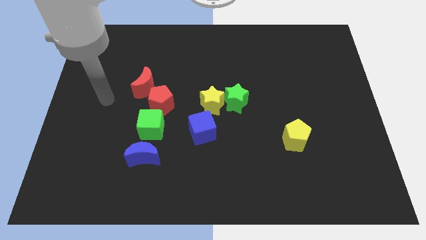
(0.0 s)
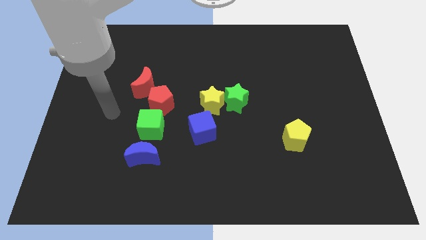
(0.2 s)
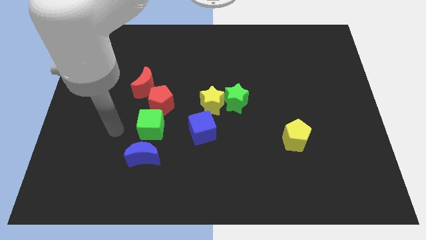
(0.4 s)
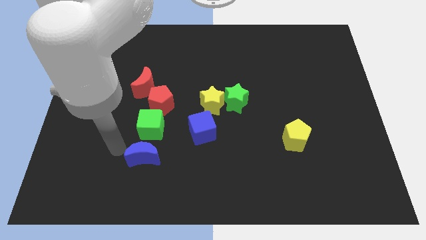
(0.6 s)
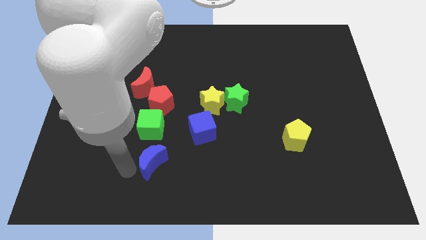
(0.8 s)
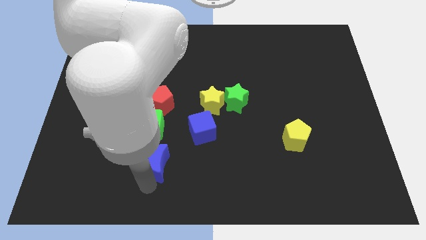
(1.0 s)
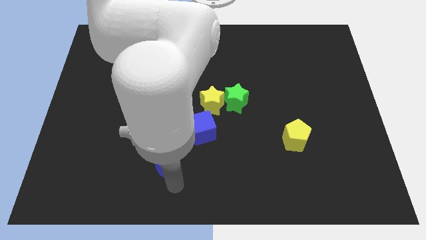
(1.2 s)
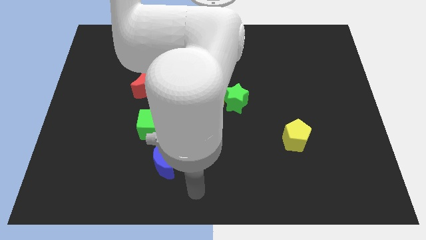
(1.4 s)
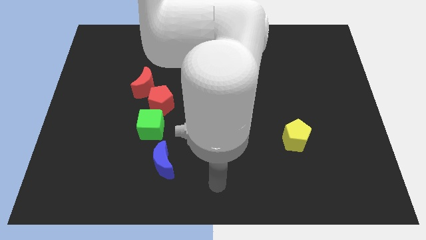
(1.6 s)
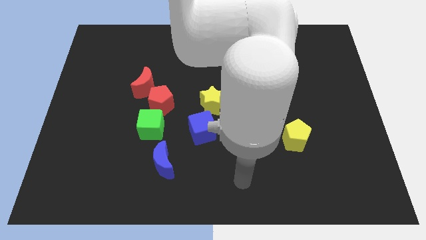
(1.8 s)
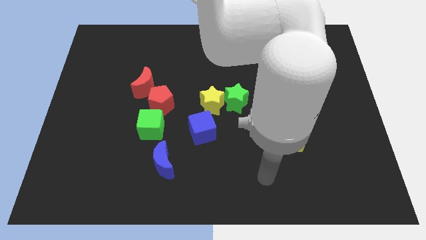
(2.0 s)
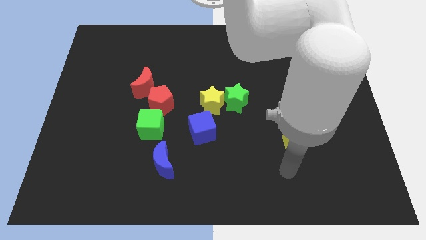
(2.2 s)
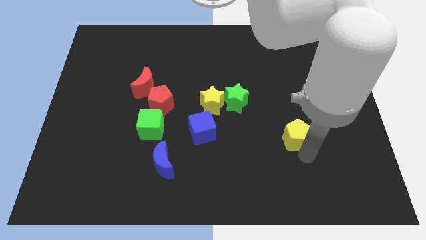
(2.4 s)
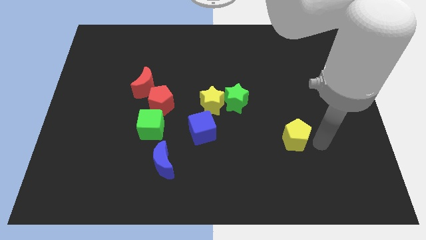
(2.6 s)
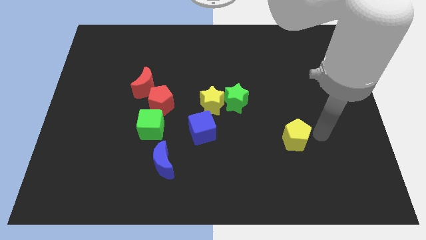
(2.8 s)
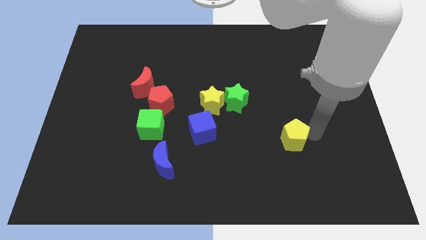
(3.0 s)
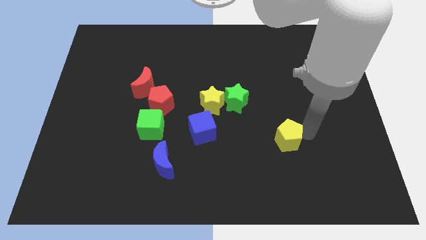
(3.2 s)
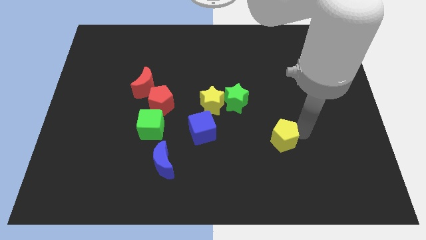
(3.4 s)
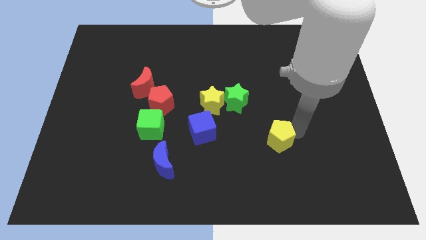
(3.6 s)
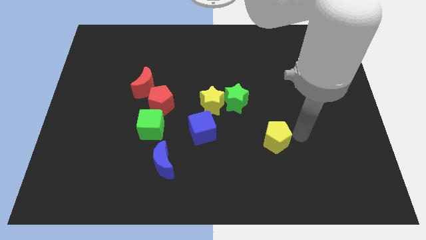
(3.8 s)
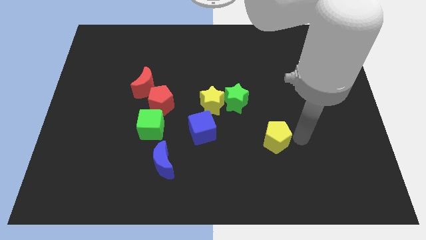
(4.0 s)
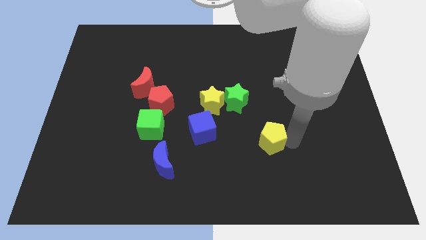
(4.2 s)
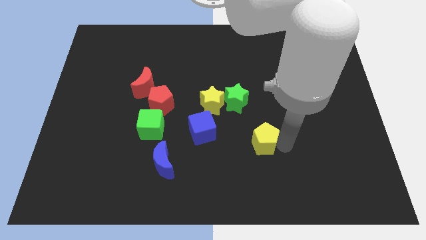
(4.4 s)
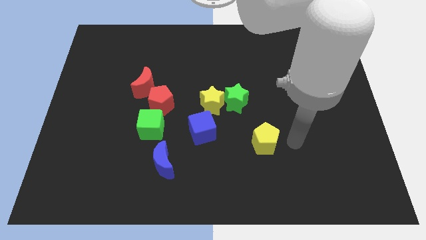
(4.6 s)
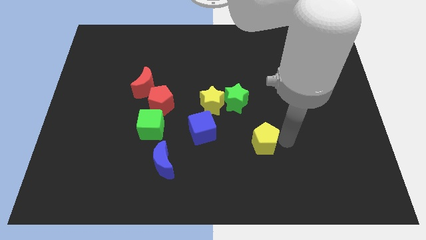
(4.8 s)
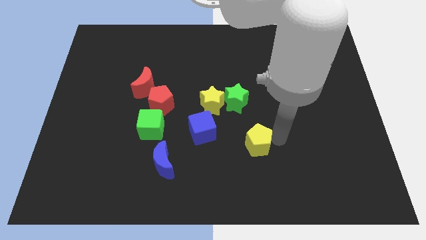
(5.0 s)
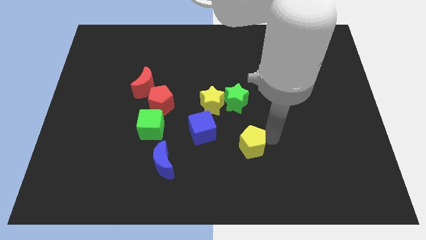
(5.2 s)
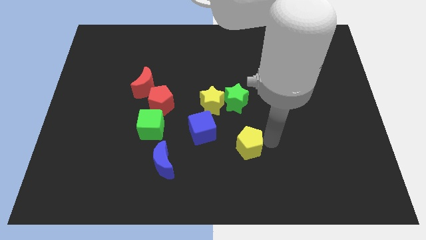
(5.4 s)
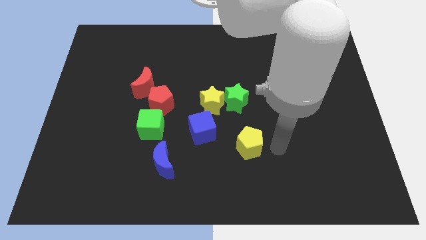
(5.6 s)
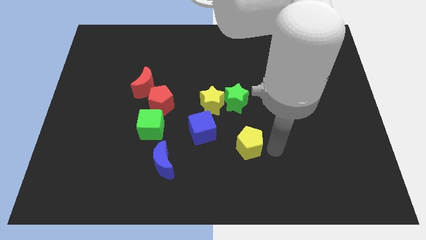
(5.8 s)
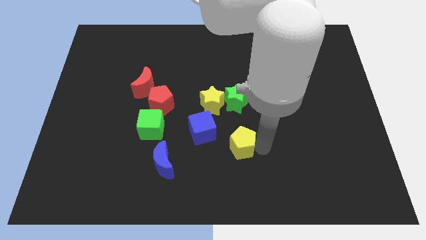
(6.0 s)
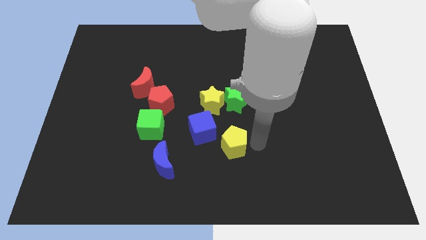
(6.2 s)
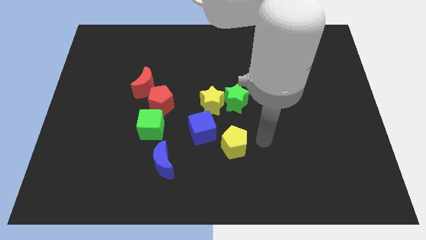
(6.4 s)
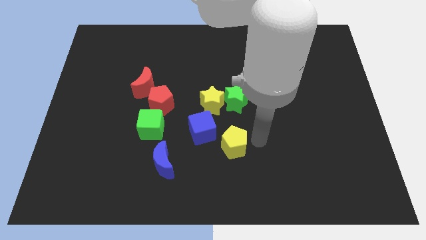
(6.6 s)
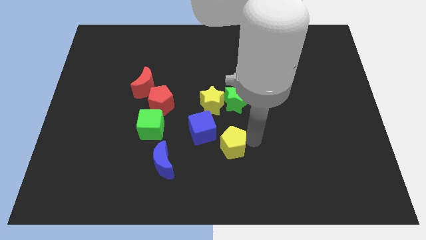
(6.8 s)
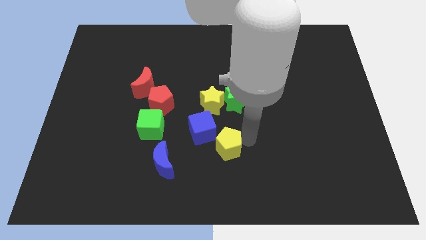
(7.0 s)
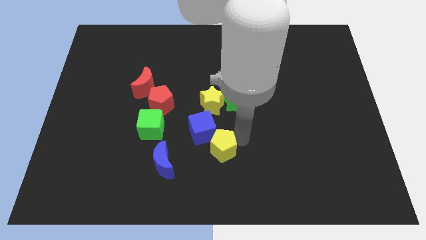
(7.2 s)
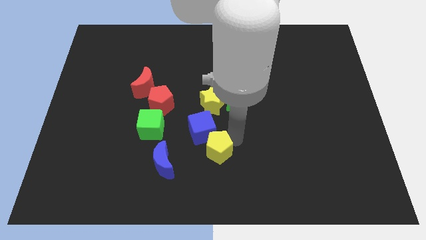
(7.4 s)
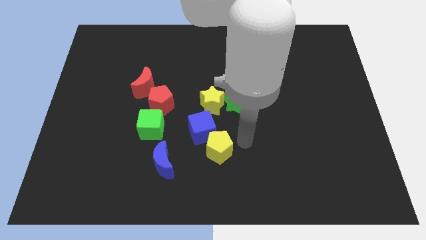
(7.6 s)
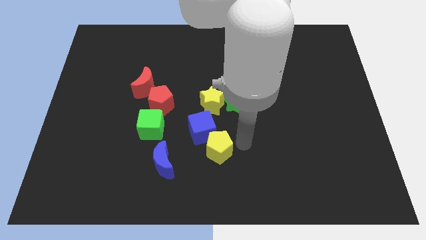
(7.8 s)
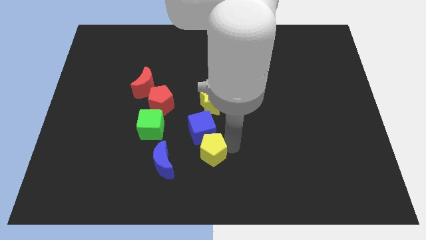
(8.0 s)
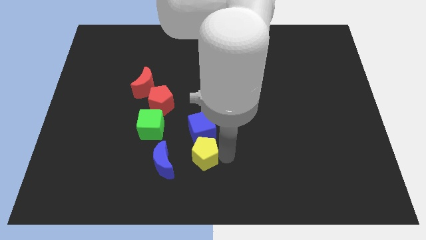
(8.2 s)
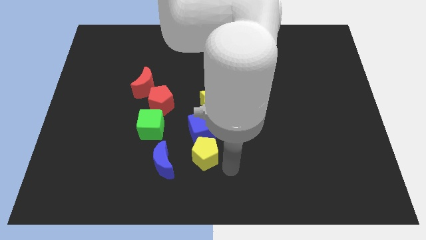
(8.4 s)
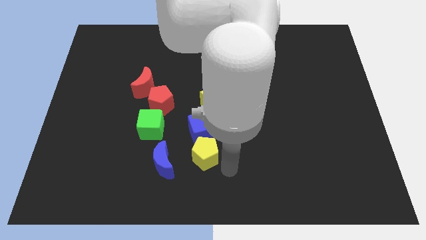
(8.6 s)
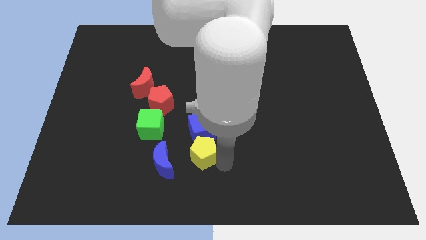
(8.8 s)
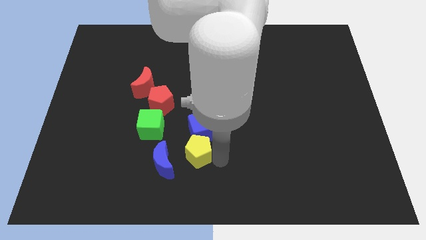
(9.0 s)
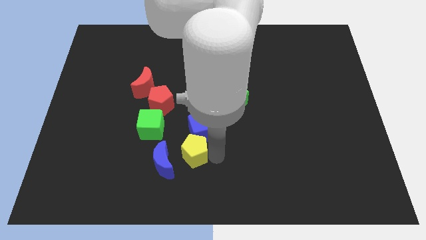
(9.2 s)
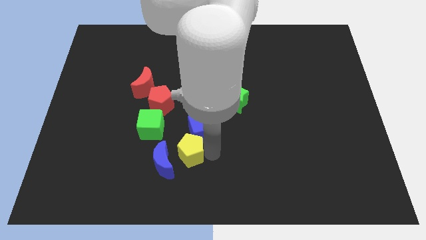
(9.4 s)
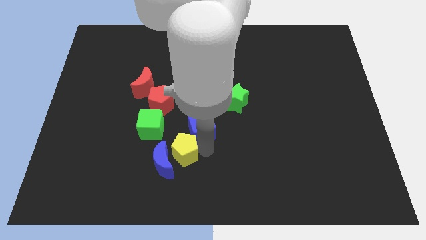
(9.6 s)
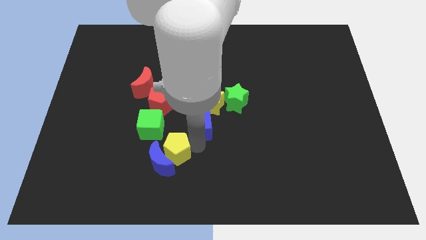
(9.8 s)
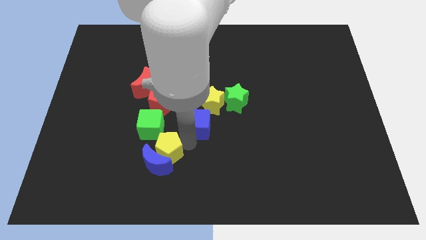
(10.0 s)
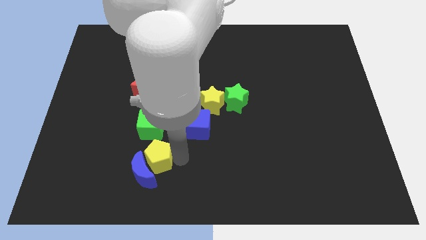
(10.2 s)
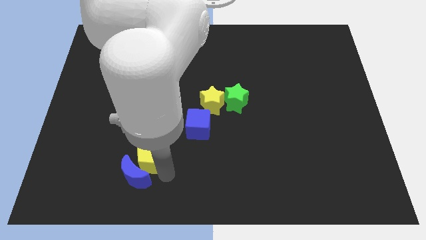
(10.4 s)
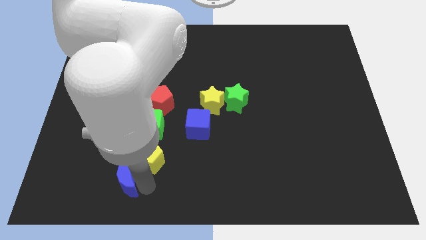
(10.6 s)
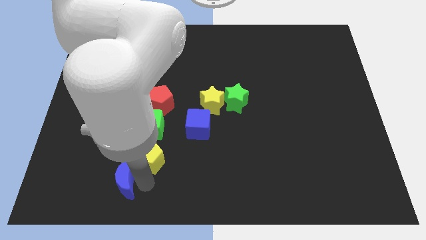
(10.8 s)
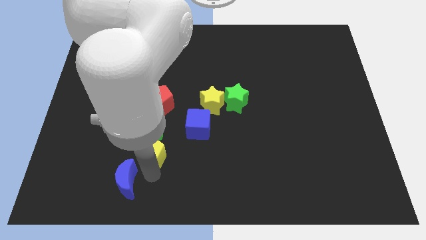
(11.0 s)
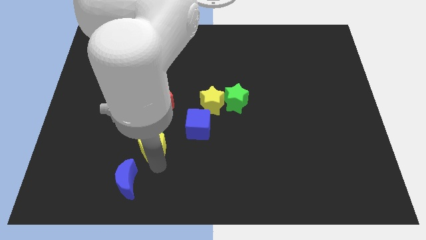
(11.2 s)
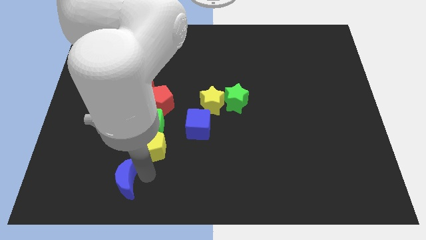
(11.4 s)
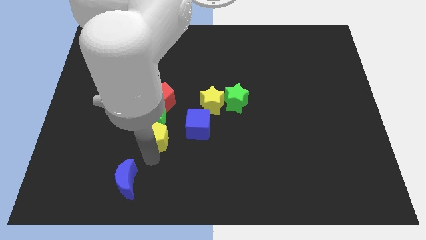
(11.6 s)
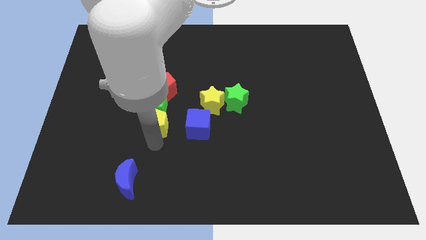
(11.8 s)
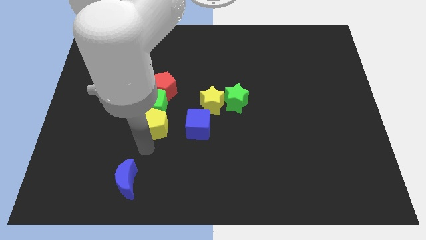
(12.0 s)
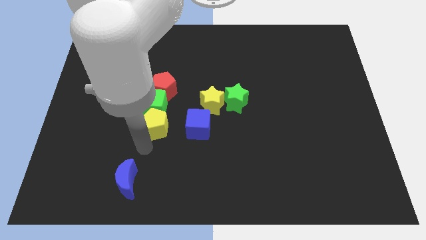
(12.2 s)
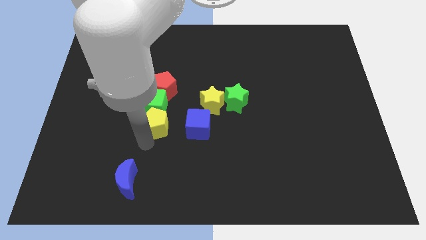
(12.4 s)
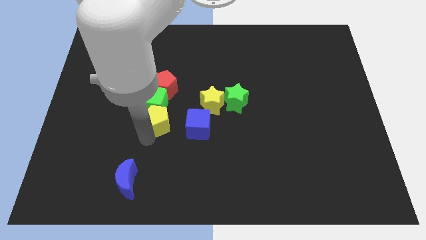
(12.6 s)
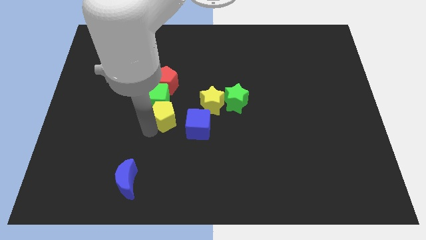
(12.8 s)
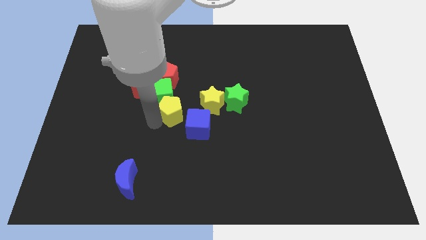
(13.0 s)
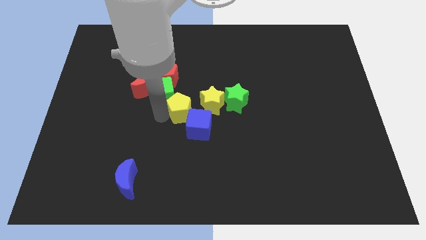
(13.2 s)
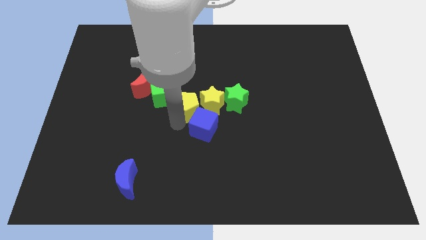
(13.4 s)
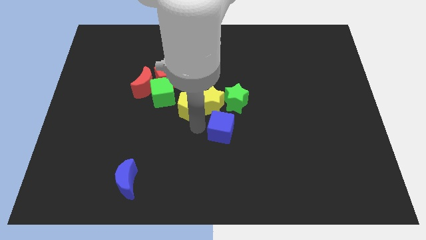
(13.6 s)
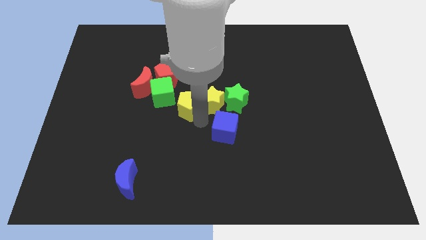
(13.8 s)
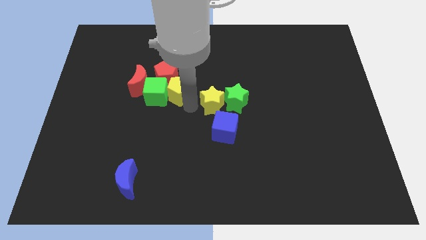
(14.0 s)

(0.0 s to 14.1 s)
slide the yellow pentagon to the red pentagon
